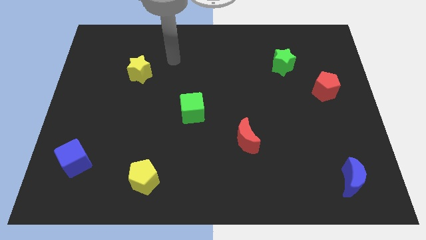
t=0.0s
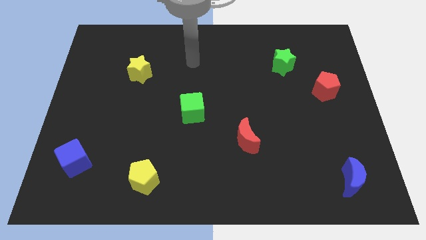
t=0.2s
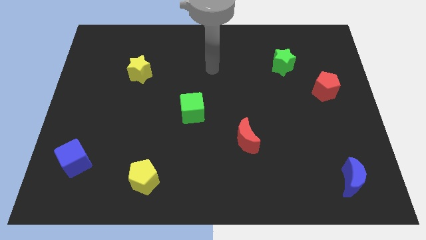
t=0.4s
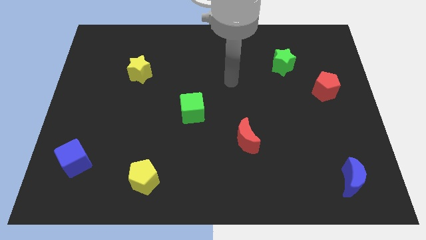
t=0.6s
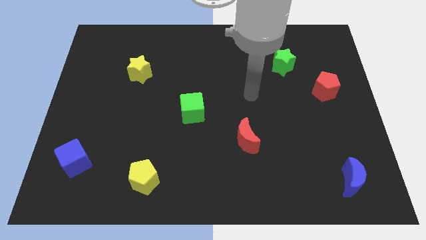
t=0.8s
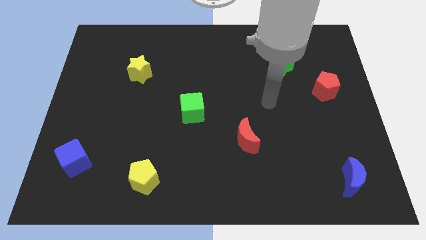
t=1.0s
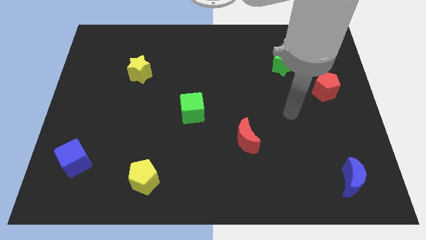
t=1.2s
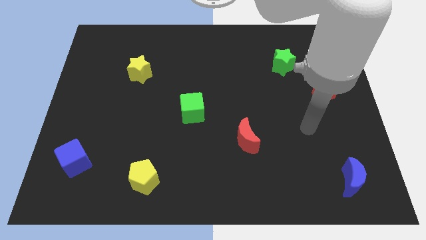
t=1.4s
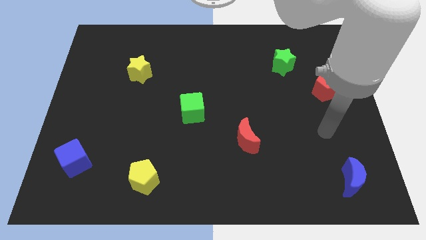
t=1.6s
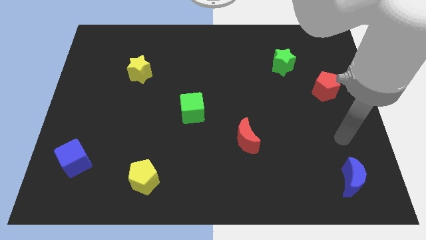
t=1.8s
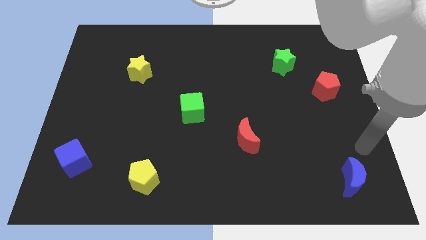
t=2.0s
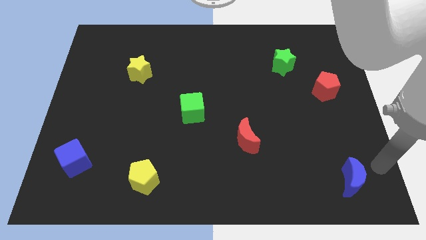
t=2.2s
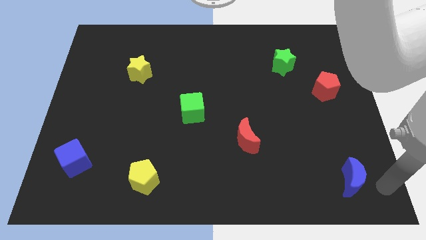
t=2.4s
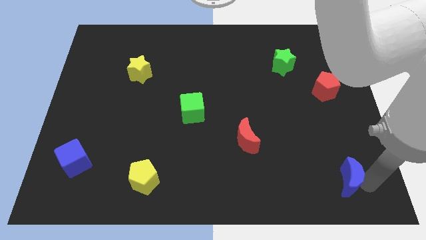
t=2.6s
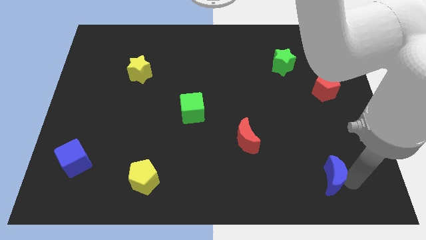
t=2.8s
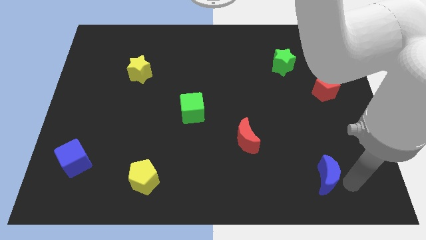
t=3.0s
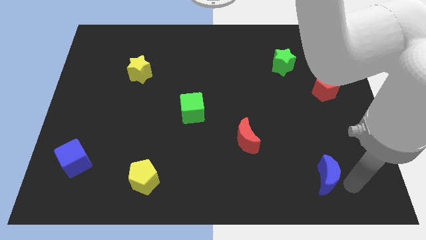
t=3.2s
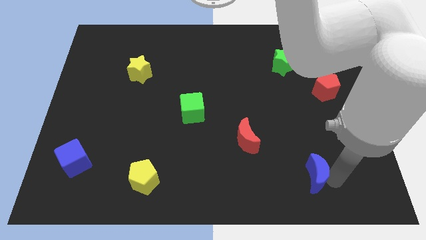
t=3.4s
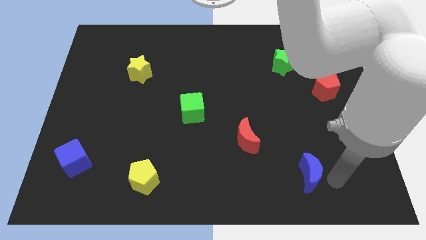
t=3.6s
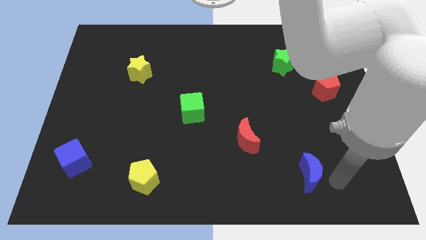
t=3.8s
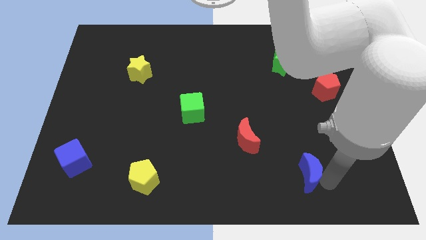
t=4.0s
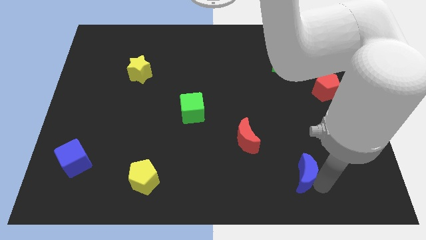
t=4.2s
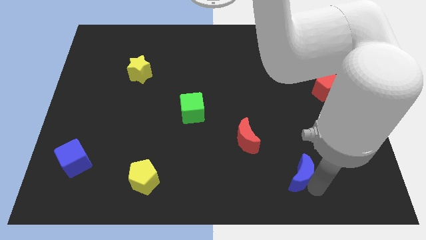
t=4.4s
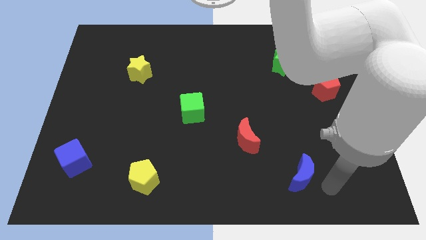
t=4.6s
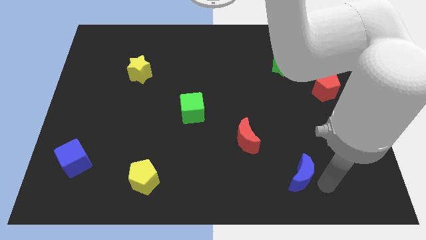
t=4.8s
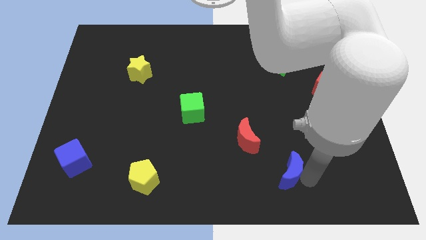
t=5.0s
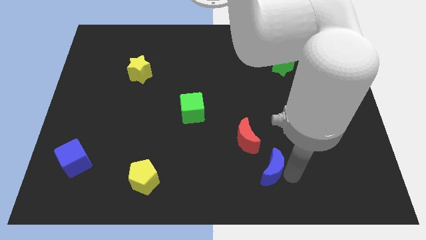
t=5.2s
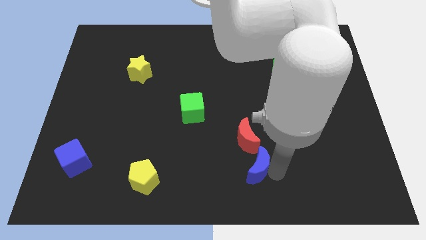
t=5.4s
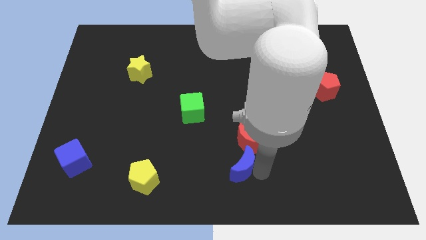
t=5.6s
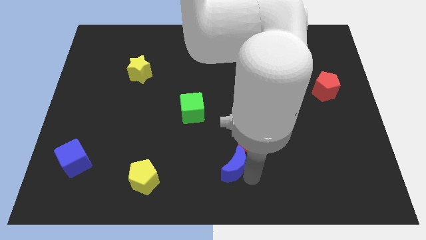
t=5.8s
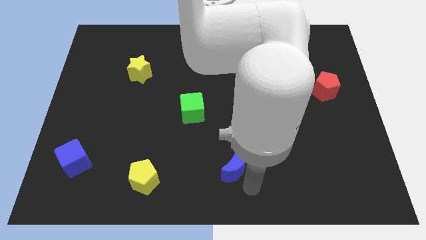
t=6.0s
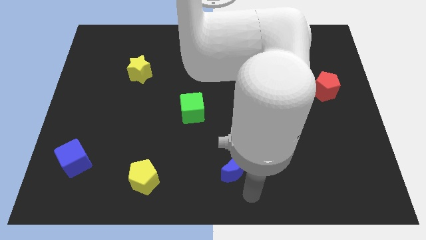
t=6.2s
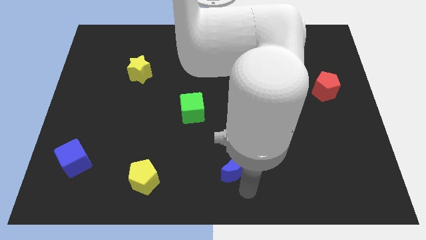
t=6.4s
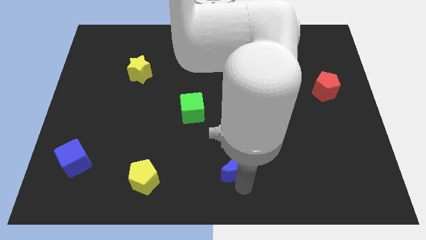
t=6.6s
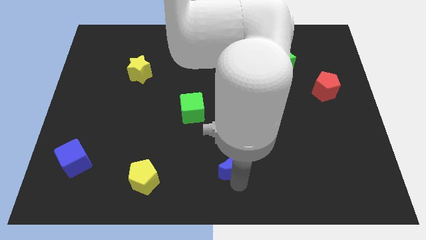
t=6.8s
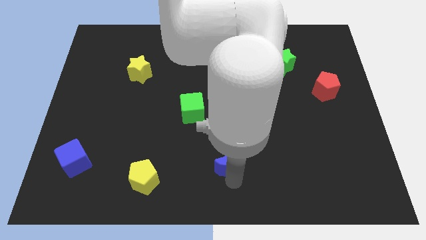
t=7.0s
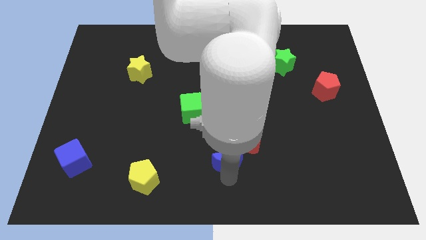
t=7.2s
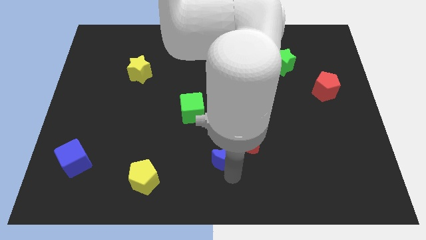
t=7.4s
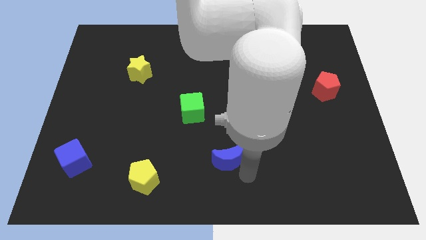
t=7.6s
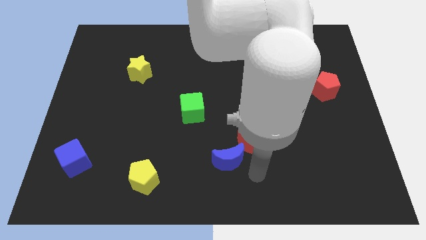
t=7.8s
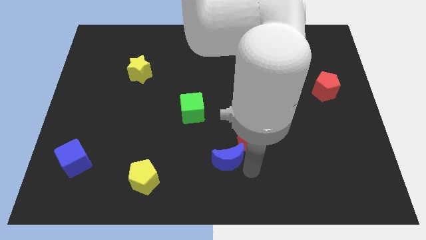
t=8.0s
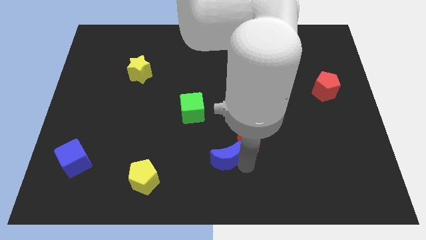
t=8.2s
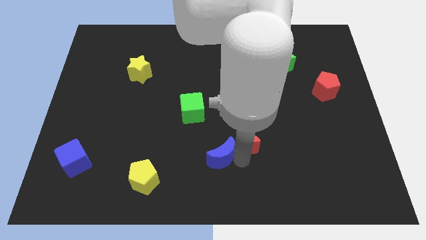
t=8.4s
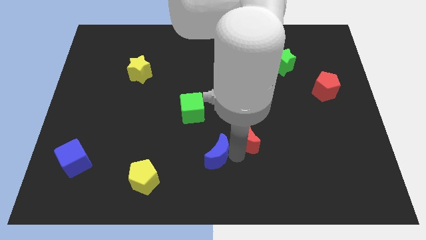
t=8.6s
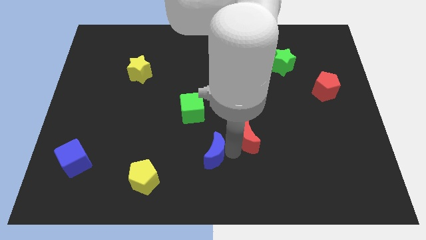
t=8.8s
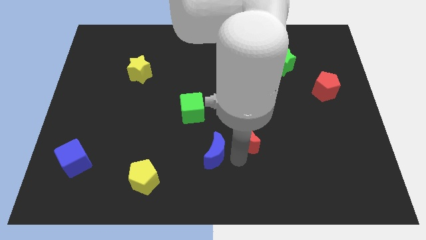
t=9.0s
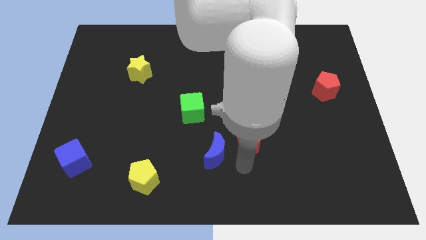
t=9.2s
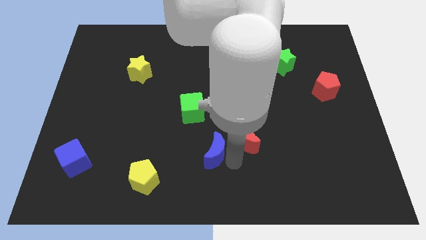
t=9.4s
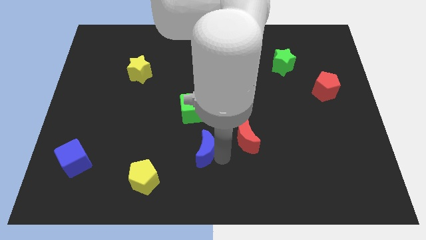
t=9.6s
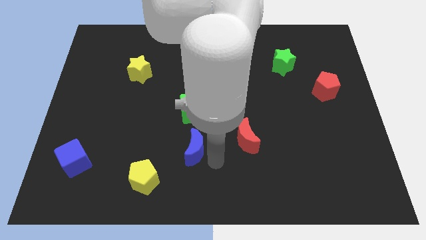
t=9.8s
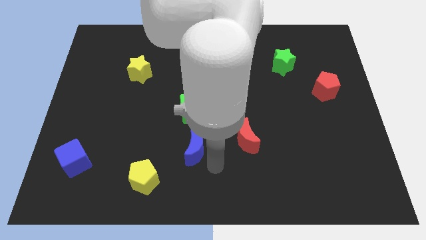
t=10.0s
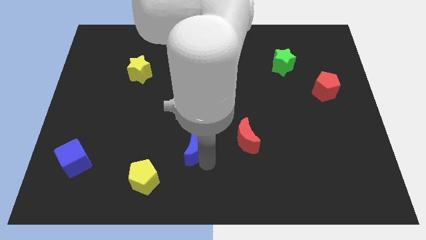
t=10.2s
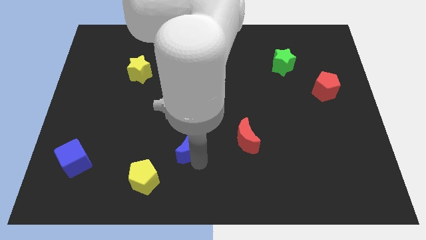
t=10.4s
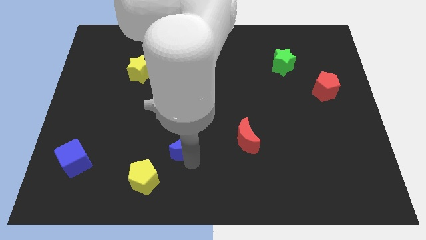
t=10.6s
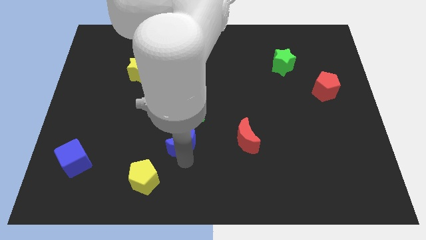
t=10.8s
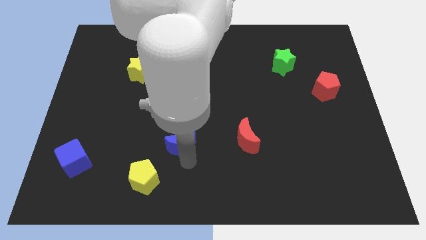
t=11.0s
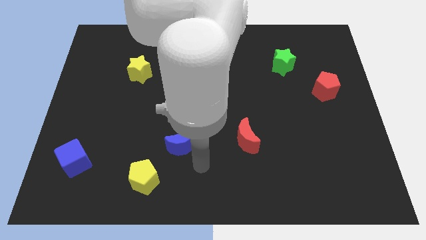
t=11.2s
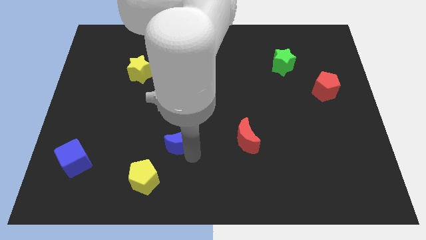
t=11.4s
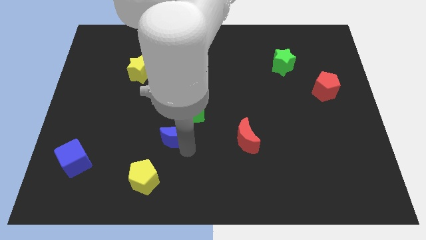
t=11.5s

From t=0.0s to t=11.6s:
move the blue moon diagonally down and to the left of the green cube

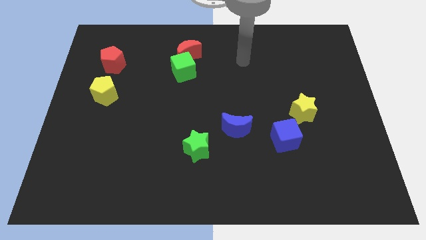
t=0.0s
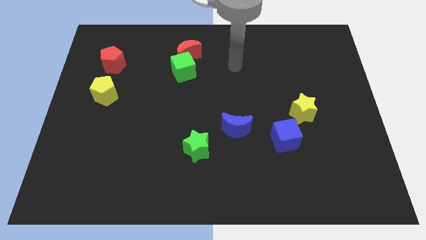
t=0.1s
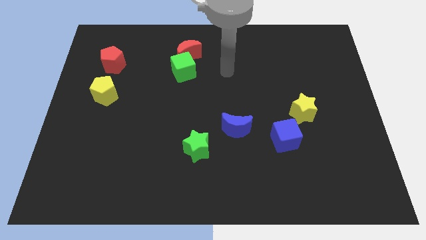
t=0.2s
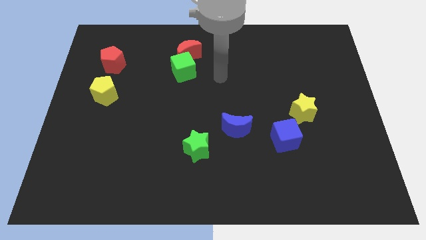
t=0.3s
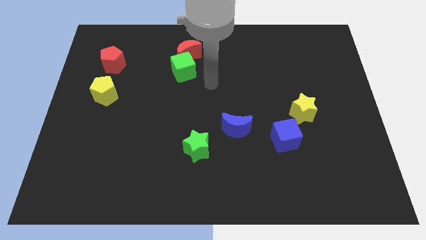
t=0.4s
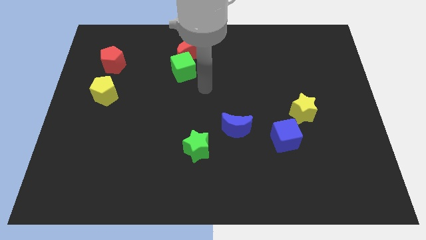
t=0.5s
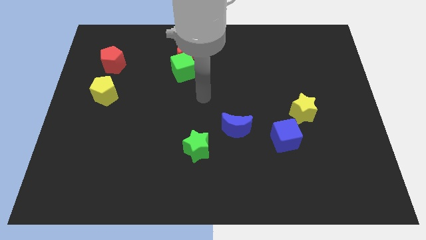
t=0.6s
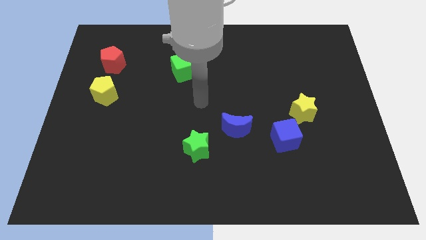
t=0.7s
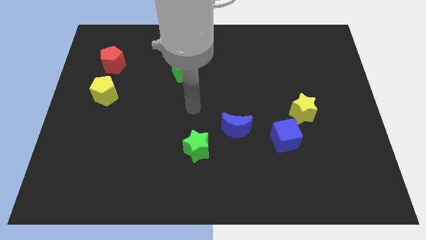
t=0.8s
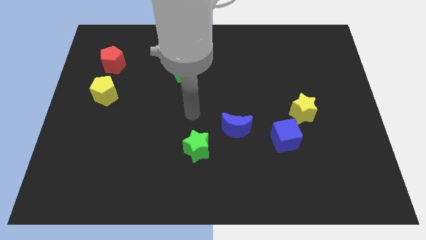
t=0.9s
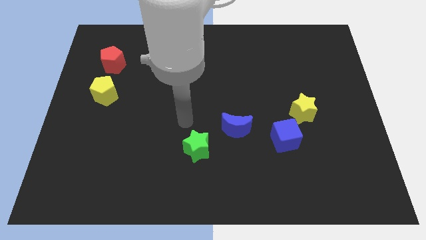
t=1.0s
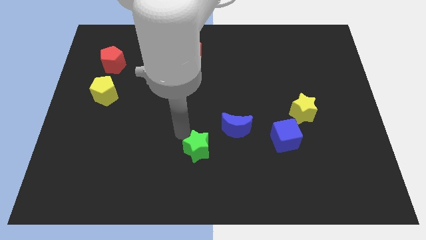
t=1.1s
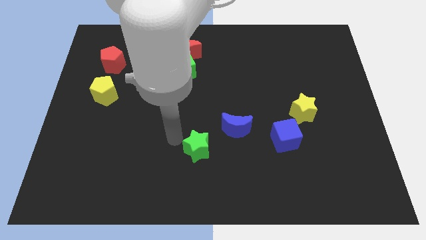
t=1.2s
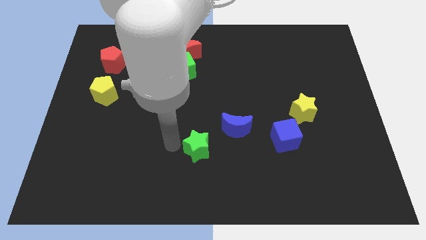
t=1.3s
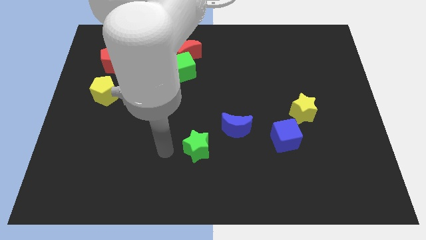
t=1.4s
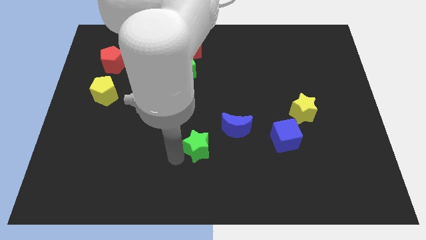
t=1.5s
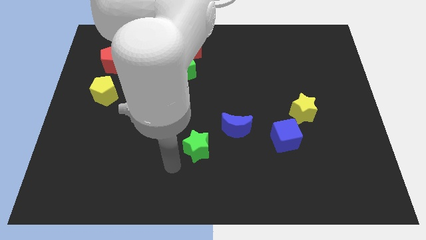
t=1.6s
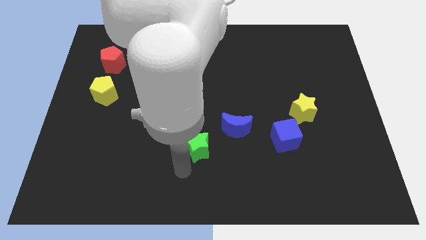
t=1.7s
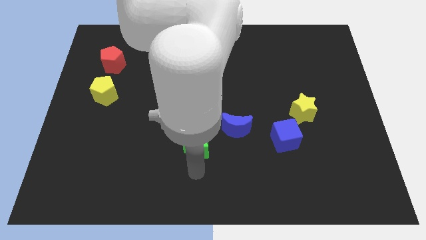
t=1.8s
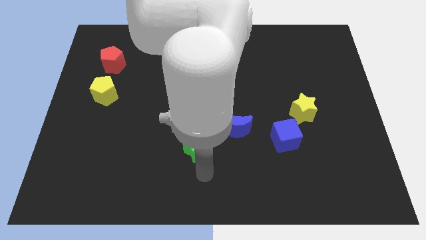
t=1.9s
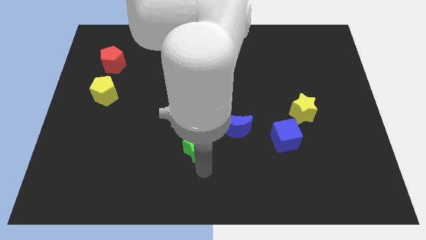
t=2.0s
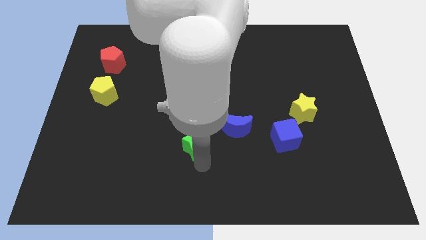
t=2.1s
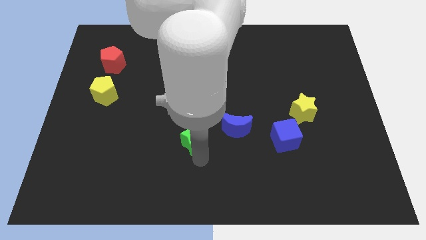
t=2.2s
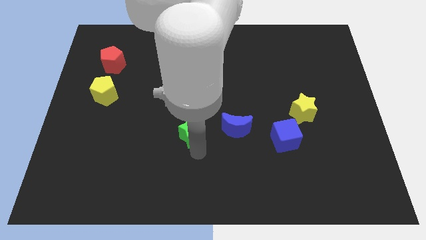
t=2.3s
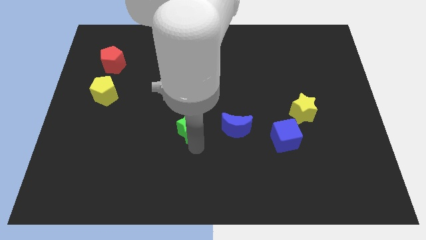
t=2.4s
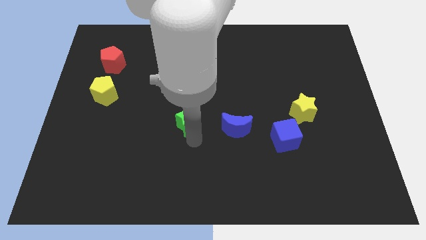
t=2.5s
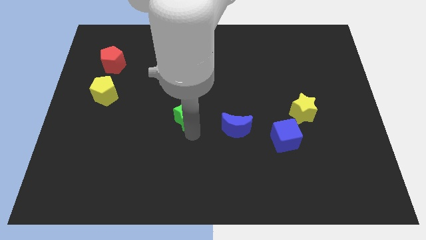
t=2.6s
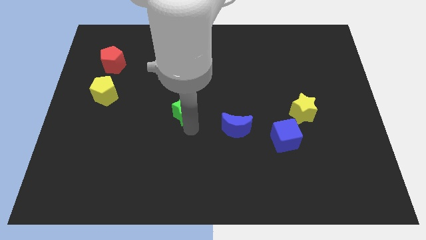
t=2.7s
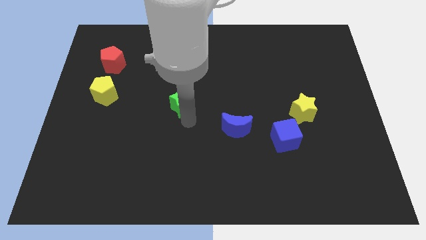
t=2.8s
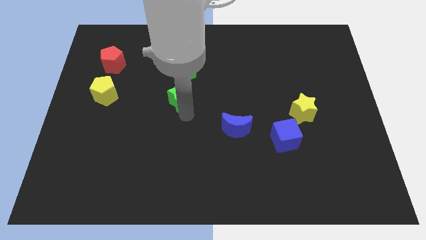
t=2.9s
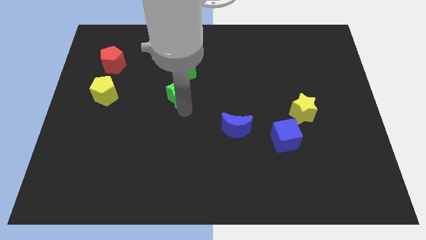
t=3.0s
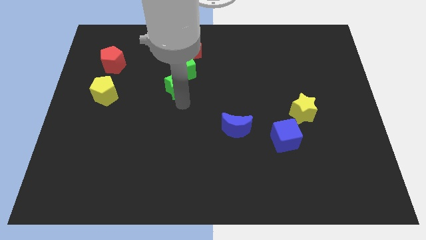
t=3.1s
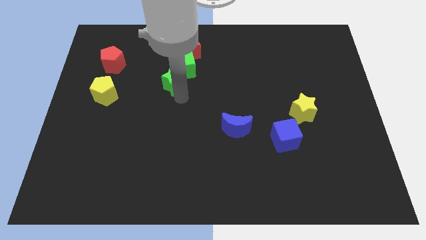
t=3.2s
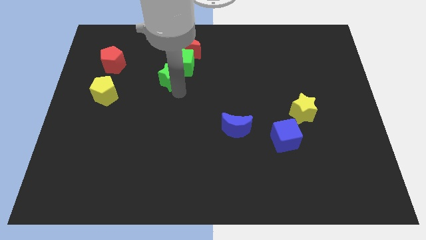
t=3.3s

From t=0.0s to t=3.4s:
slide the green star to the bottom left side of the red moon
